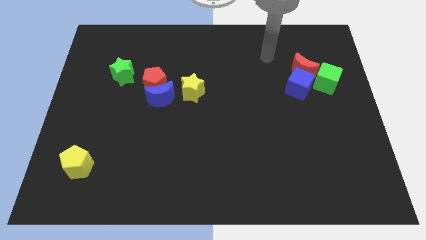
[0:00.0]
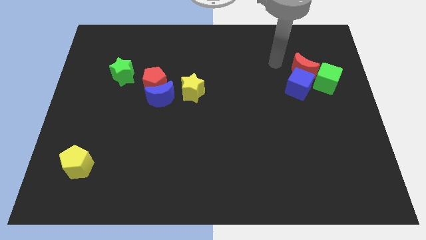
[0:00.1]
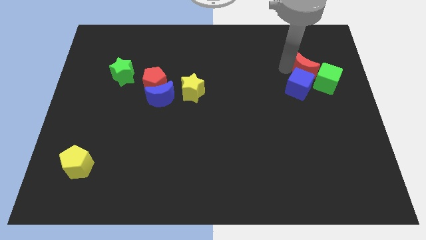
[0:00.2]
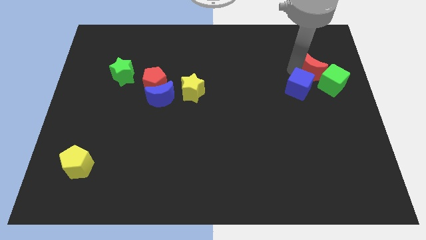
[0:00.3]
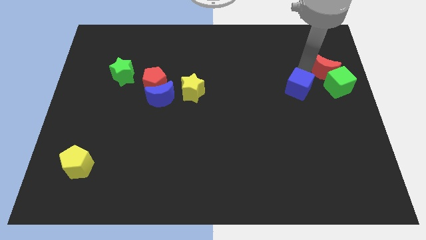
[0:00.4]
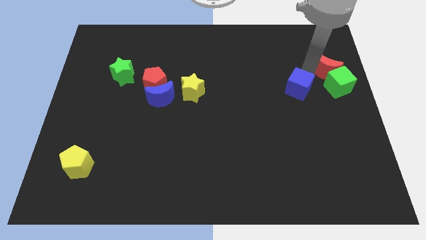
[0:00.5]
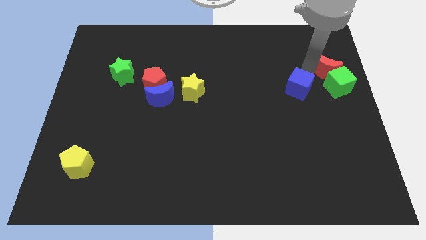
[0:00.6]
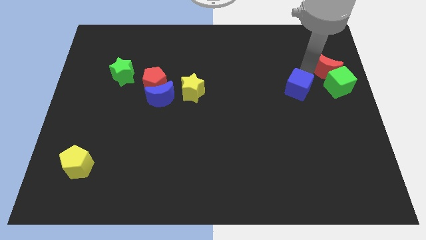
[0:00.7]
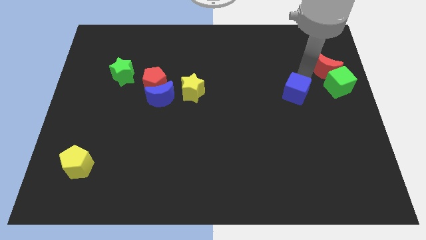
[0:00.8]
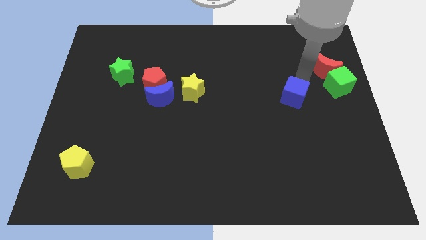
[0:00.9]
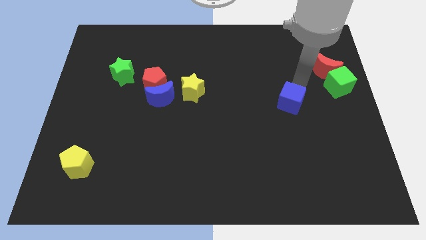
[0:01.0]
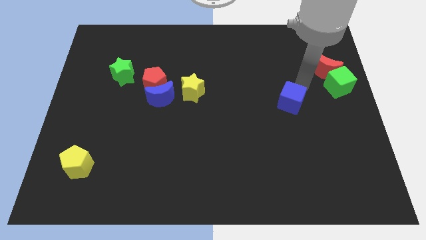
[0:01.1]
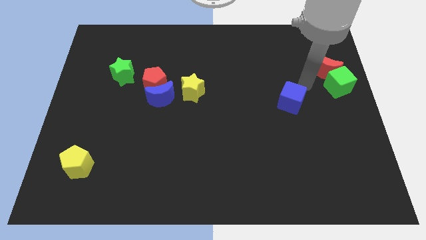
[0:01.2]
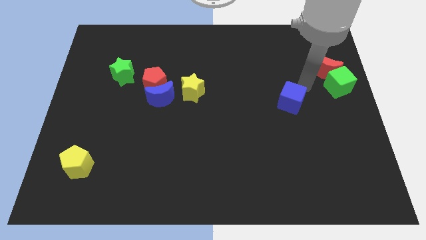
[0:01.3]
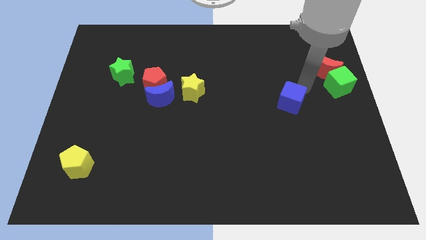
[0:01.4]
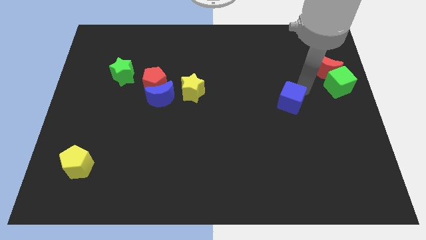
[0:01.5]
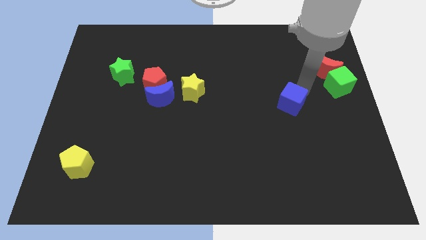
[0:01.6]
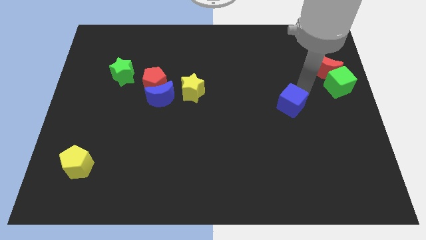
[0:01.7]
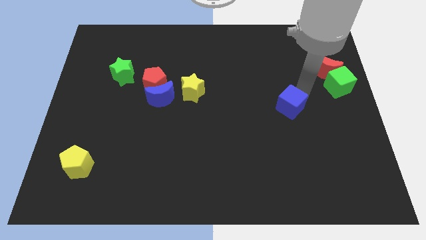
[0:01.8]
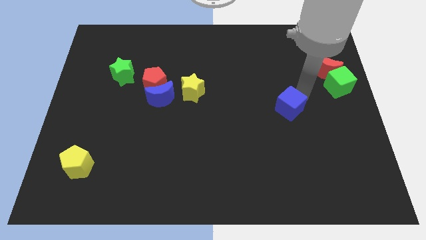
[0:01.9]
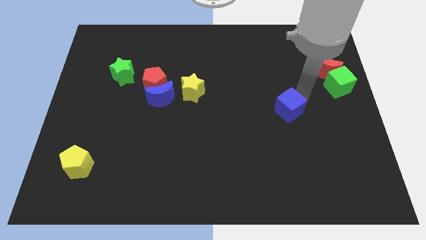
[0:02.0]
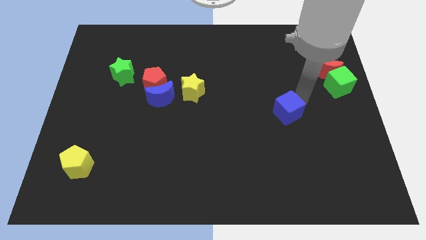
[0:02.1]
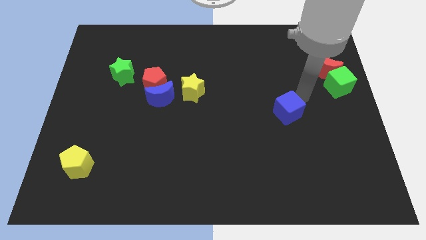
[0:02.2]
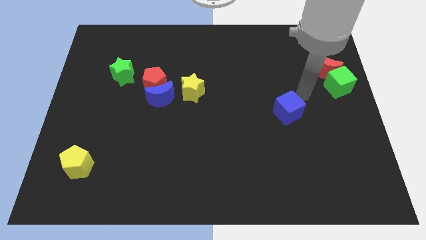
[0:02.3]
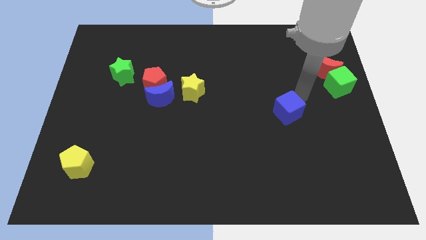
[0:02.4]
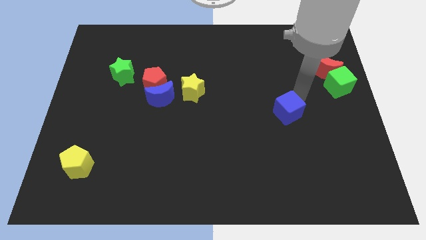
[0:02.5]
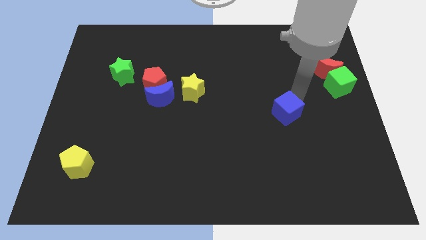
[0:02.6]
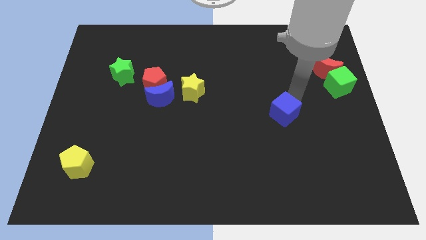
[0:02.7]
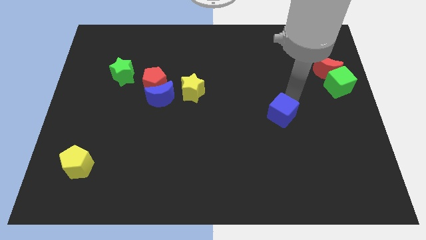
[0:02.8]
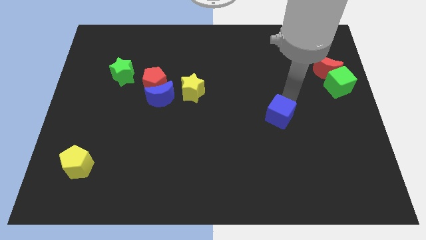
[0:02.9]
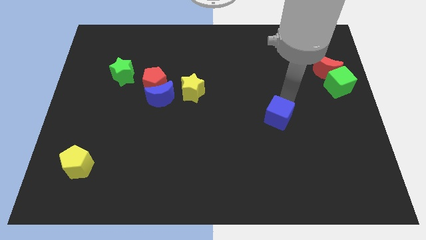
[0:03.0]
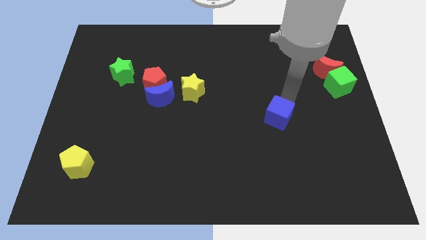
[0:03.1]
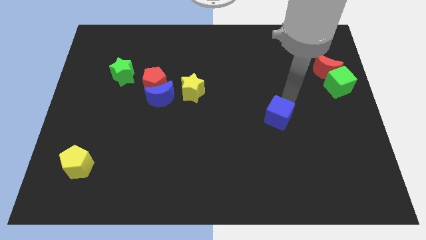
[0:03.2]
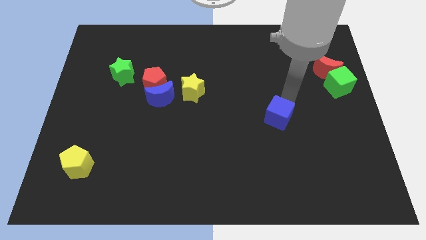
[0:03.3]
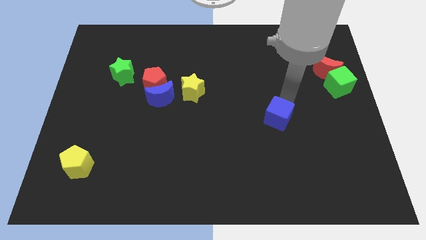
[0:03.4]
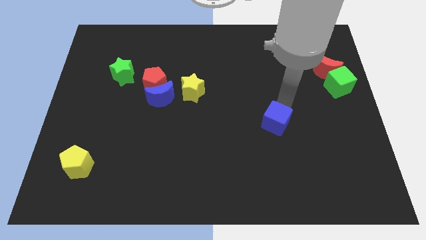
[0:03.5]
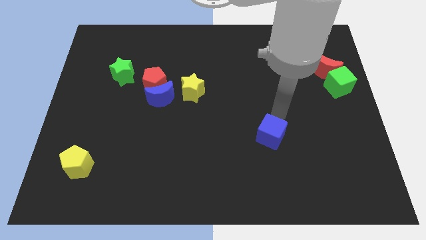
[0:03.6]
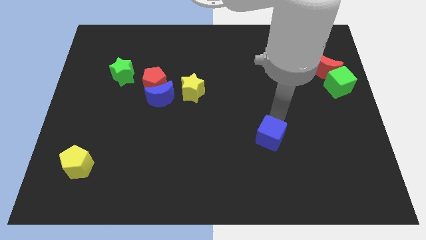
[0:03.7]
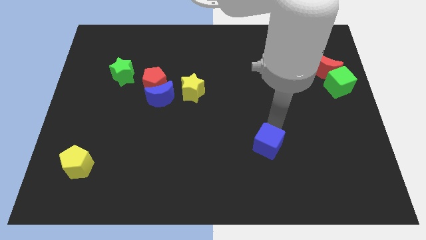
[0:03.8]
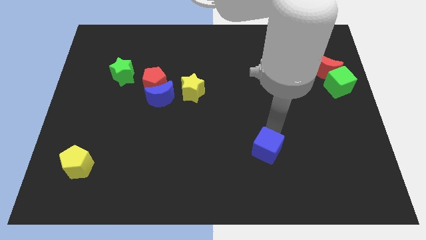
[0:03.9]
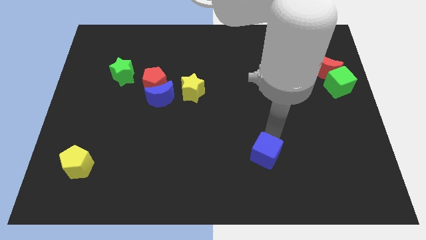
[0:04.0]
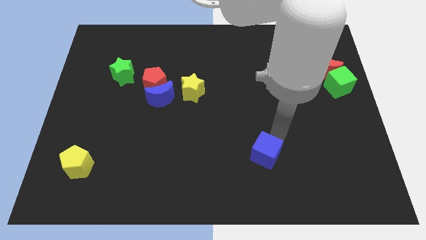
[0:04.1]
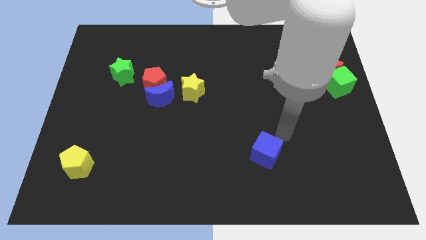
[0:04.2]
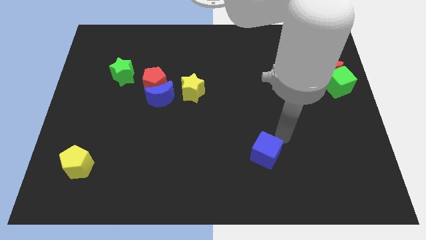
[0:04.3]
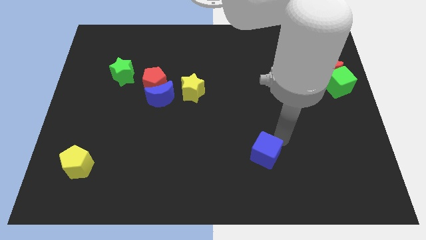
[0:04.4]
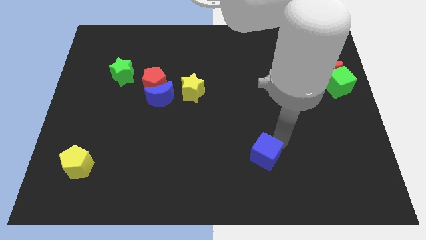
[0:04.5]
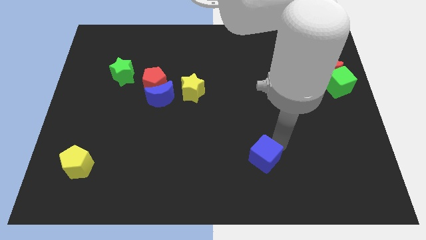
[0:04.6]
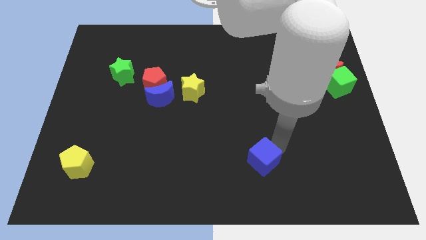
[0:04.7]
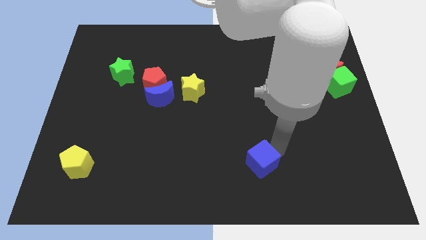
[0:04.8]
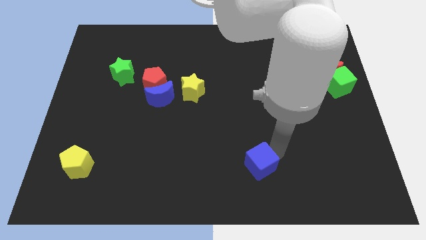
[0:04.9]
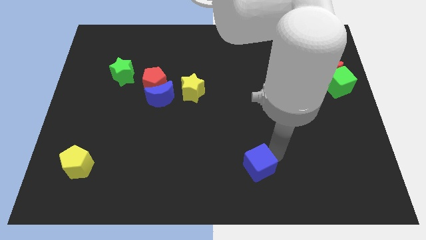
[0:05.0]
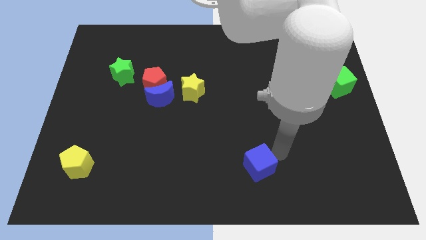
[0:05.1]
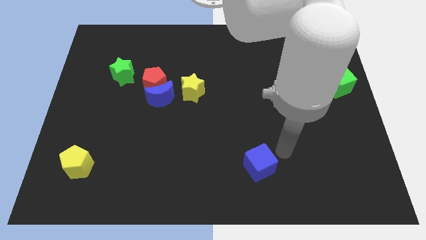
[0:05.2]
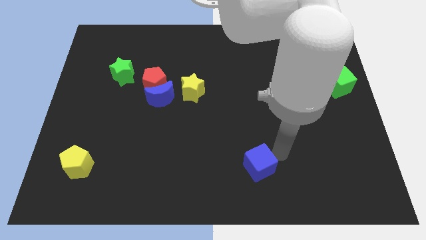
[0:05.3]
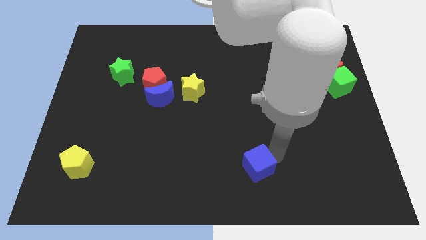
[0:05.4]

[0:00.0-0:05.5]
push the blue cube to the bottom side

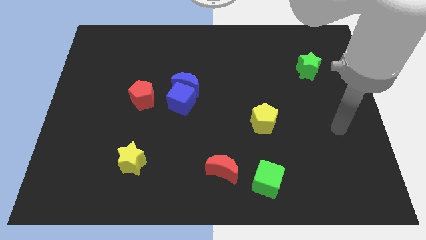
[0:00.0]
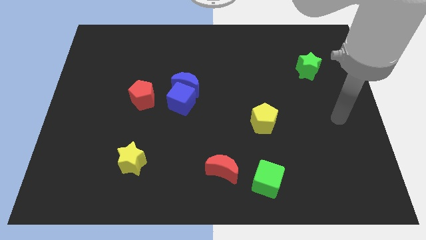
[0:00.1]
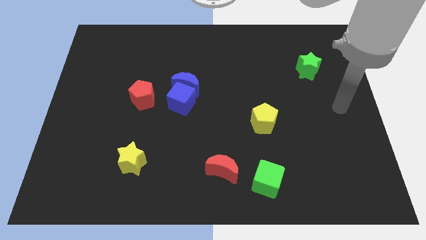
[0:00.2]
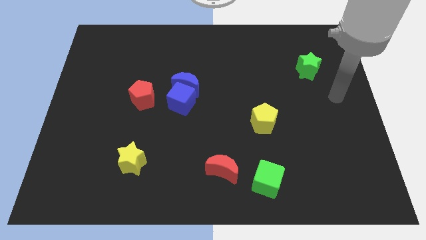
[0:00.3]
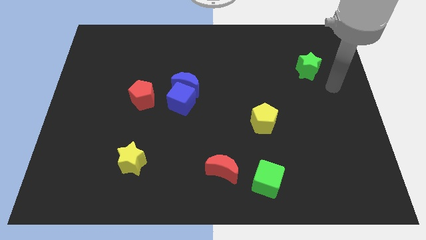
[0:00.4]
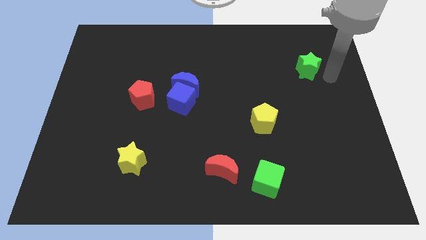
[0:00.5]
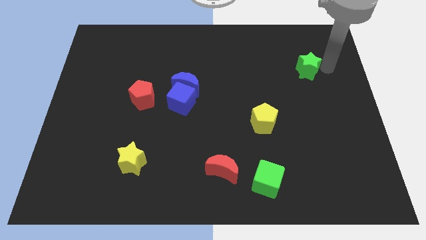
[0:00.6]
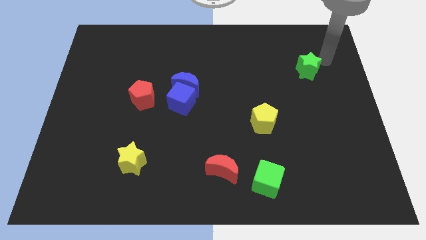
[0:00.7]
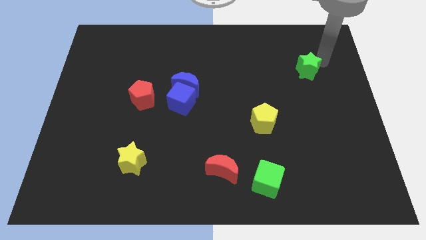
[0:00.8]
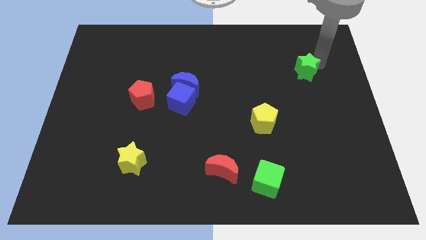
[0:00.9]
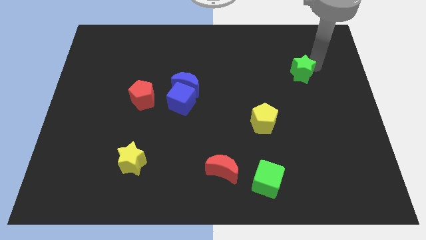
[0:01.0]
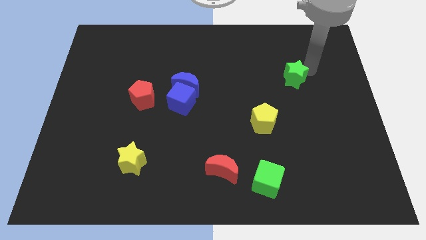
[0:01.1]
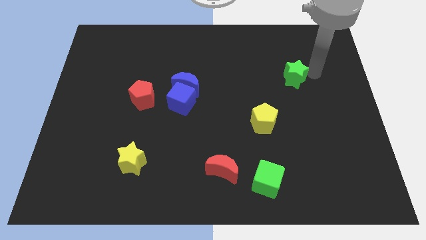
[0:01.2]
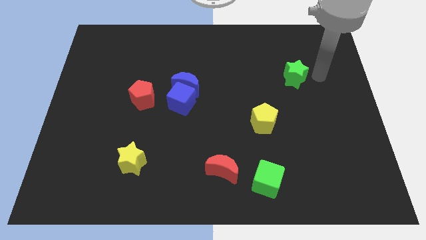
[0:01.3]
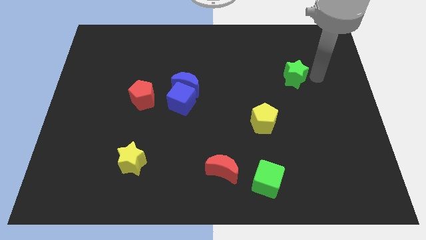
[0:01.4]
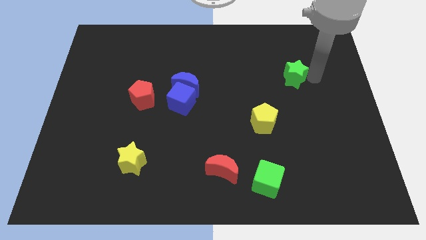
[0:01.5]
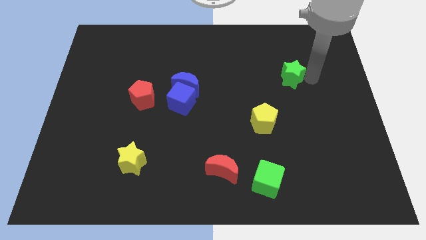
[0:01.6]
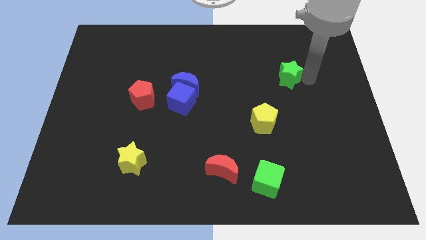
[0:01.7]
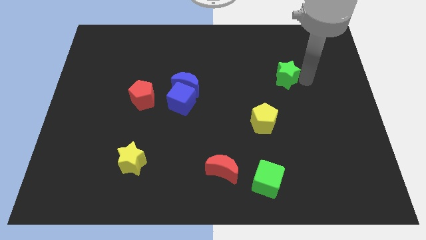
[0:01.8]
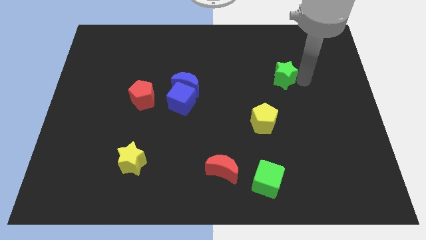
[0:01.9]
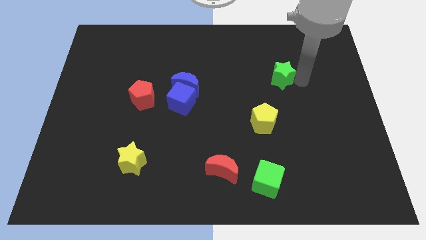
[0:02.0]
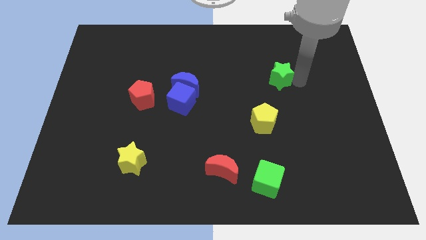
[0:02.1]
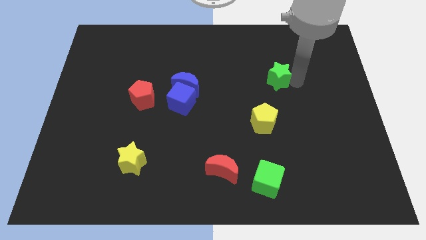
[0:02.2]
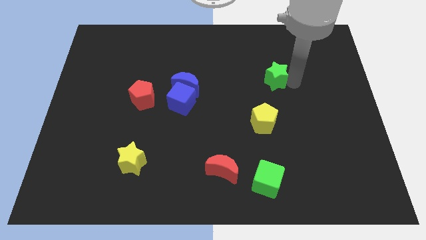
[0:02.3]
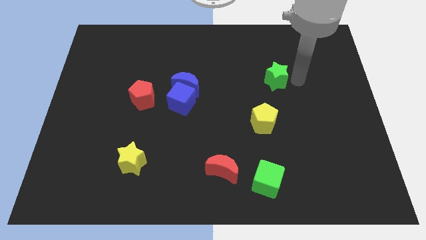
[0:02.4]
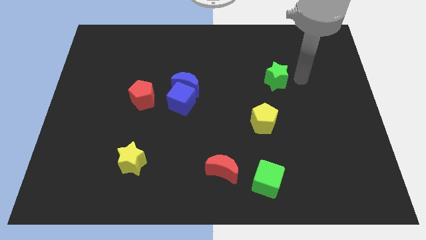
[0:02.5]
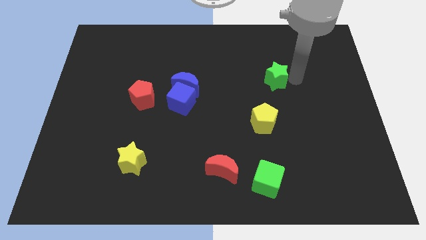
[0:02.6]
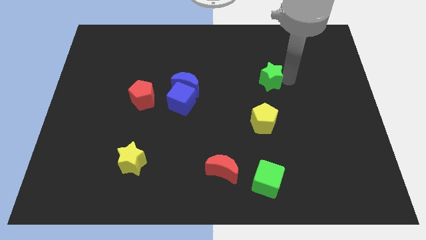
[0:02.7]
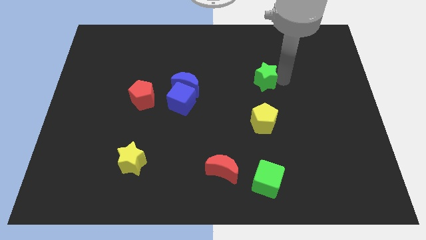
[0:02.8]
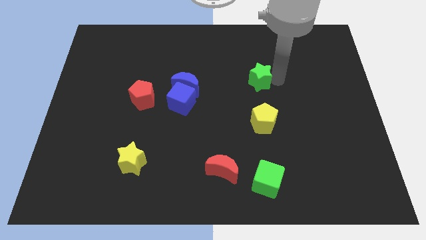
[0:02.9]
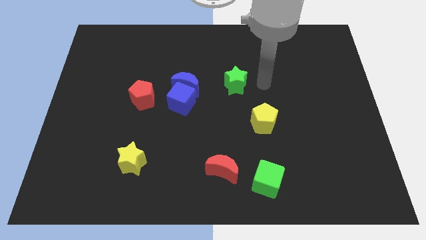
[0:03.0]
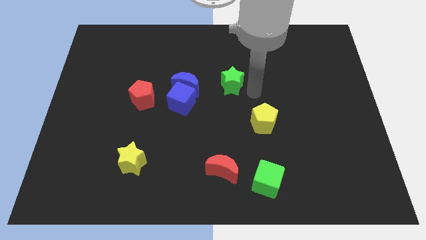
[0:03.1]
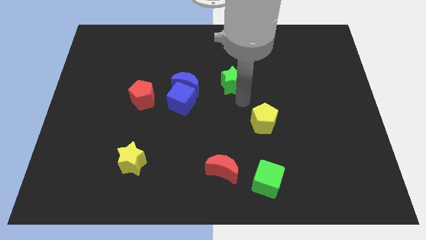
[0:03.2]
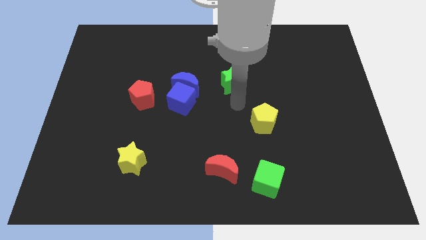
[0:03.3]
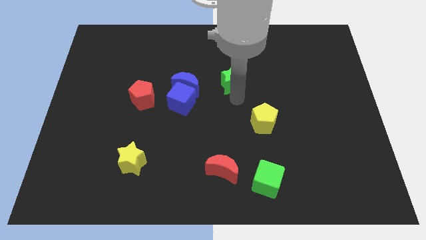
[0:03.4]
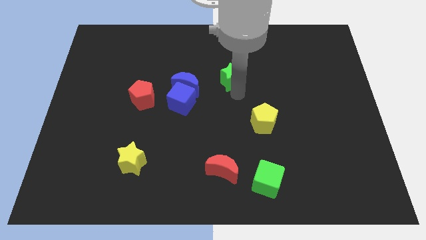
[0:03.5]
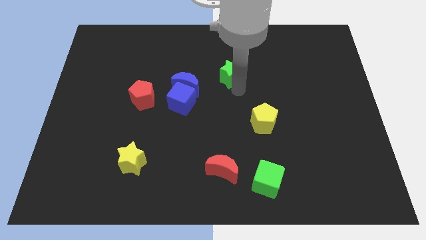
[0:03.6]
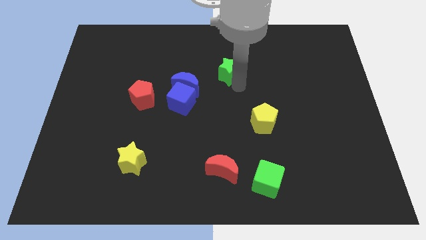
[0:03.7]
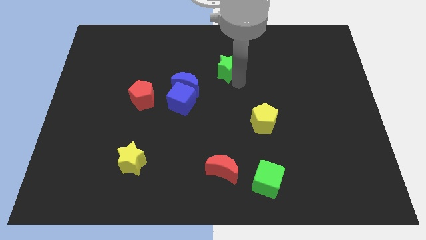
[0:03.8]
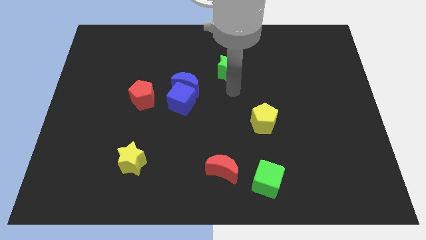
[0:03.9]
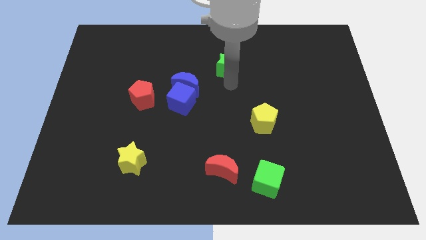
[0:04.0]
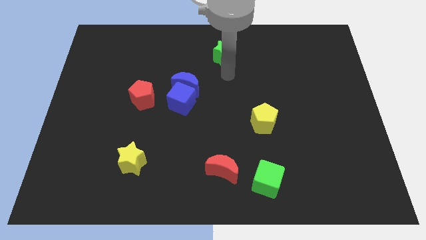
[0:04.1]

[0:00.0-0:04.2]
push the green star to the top side
